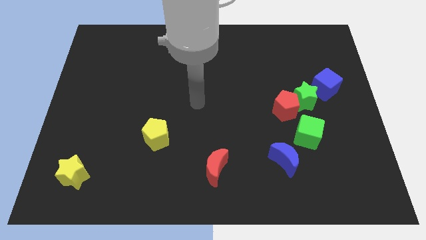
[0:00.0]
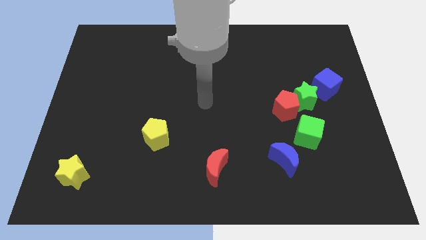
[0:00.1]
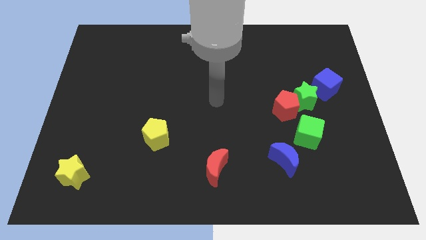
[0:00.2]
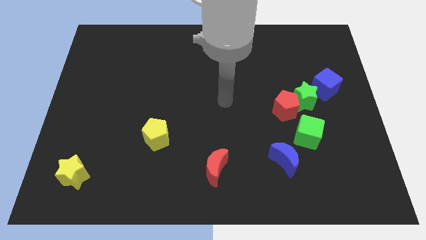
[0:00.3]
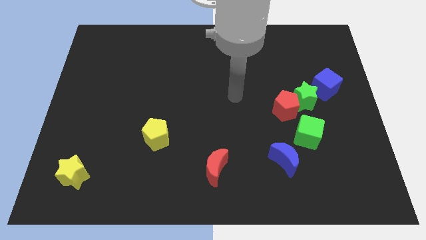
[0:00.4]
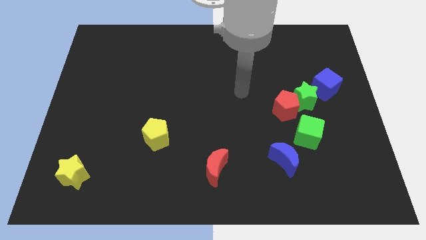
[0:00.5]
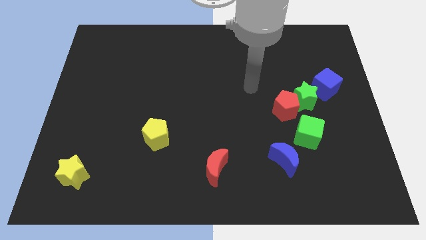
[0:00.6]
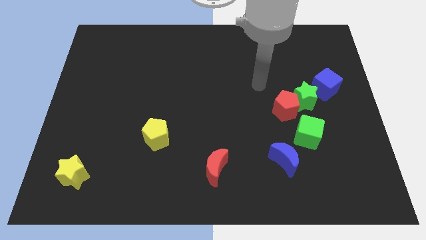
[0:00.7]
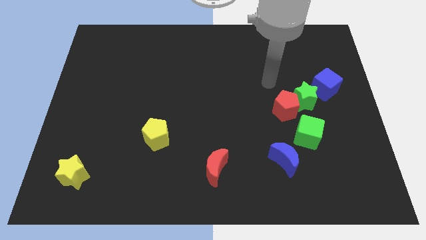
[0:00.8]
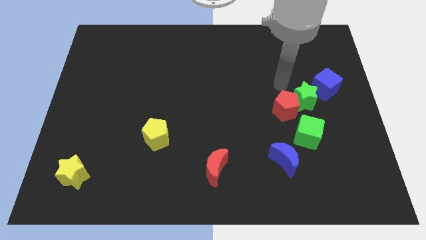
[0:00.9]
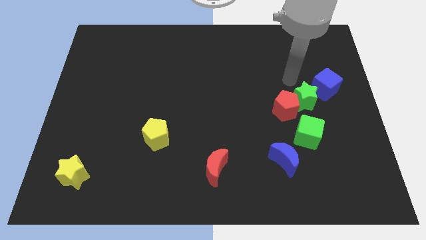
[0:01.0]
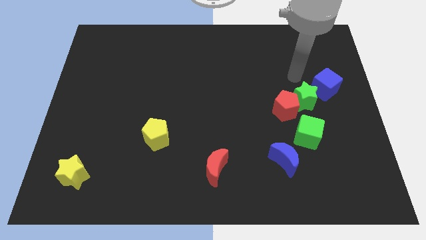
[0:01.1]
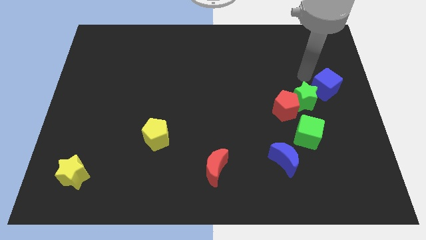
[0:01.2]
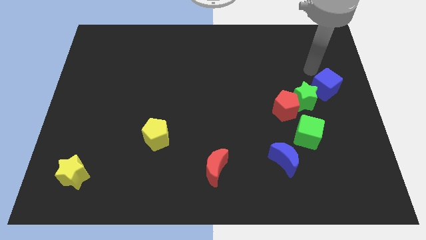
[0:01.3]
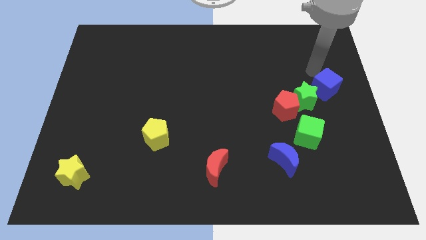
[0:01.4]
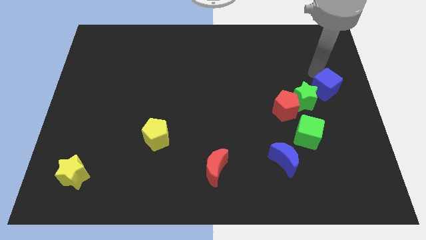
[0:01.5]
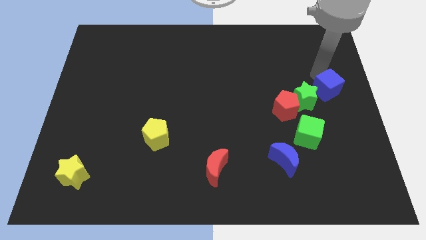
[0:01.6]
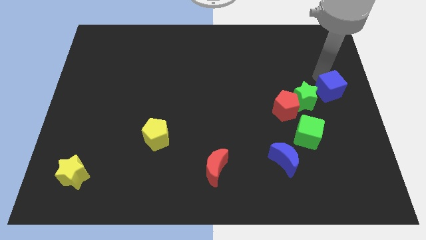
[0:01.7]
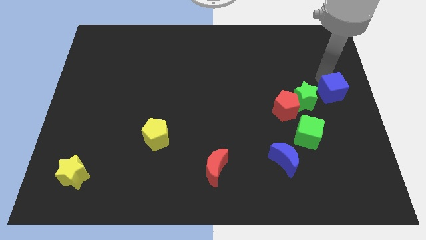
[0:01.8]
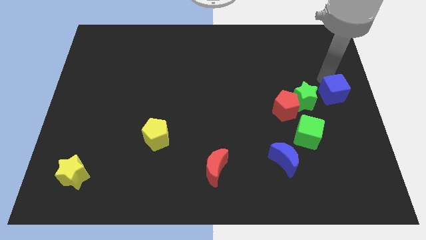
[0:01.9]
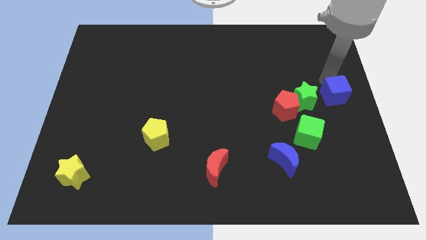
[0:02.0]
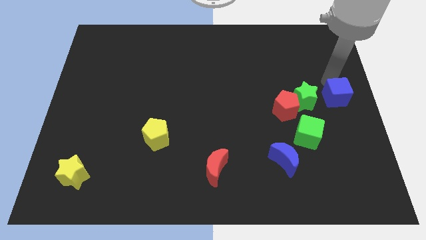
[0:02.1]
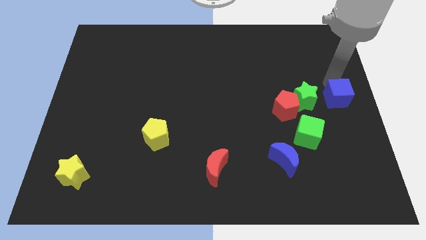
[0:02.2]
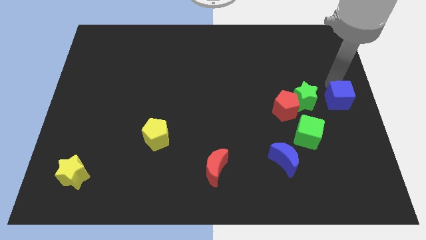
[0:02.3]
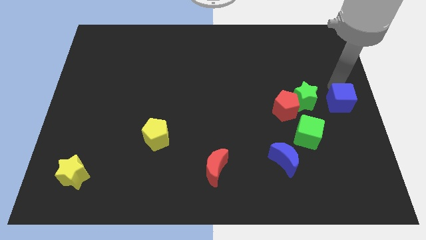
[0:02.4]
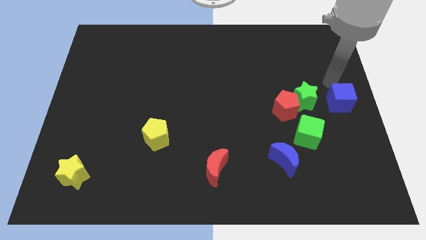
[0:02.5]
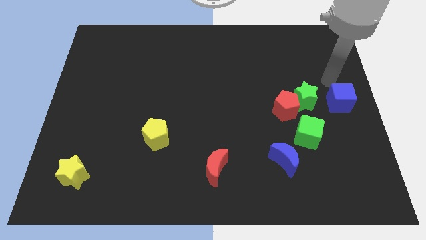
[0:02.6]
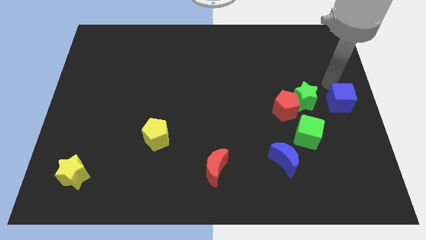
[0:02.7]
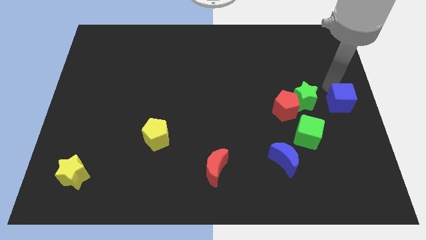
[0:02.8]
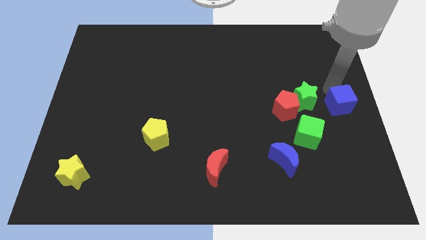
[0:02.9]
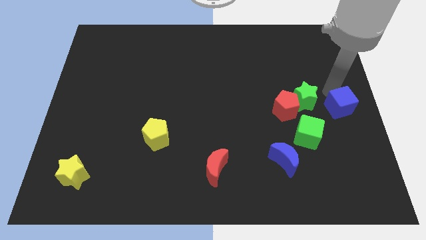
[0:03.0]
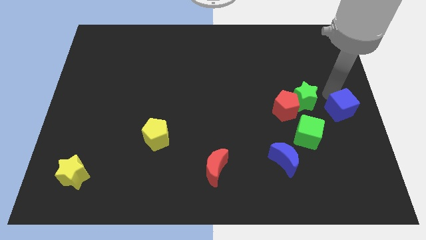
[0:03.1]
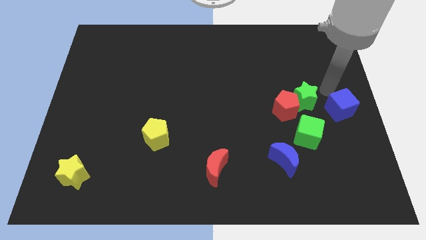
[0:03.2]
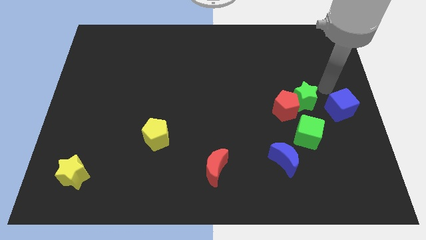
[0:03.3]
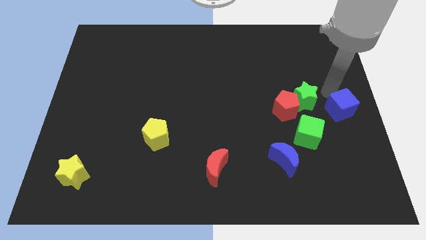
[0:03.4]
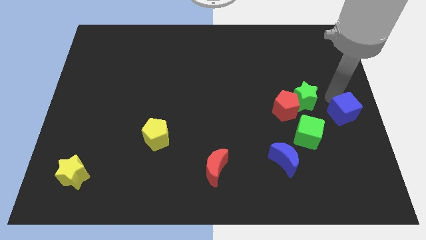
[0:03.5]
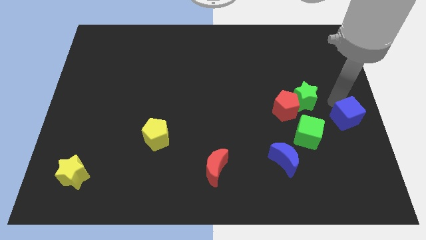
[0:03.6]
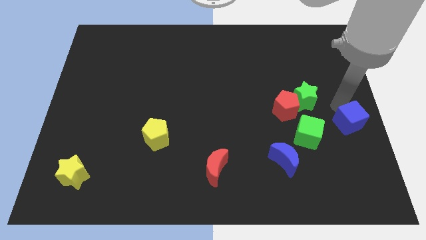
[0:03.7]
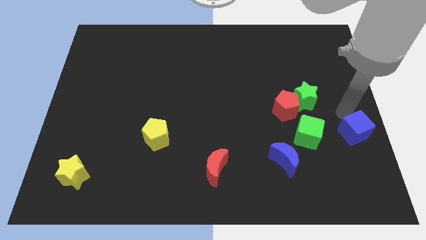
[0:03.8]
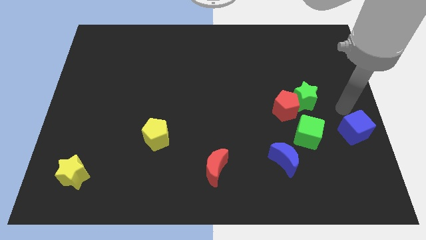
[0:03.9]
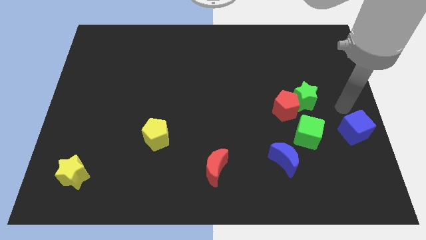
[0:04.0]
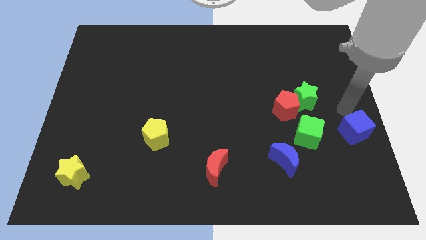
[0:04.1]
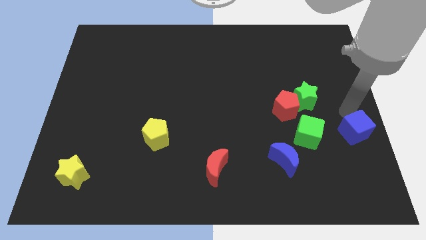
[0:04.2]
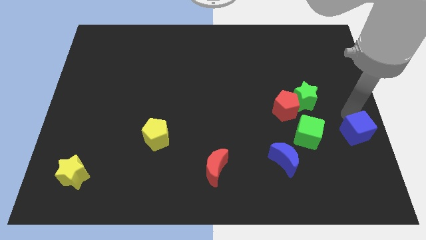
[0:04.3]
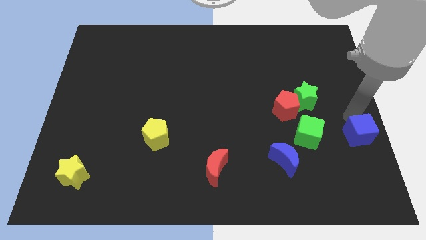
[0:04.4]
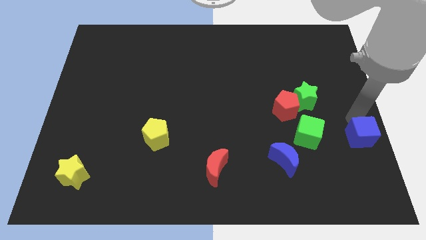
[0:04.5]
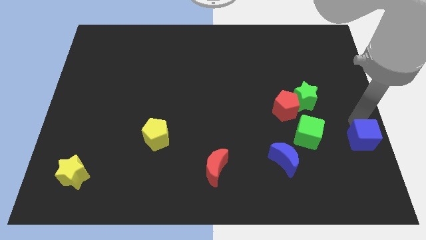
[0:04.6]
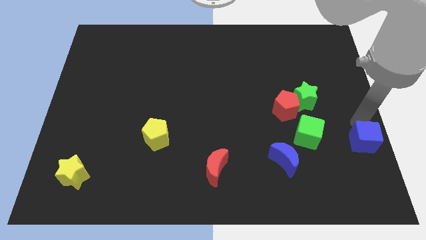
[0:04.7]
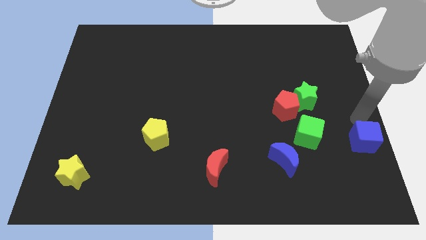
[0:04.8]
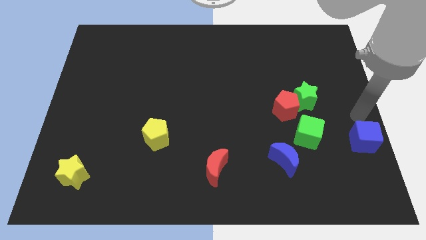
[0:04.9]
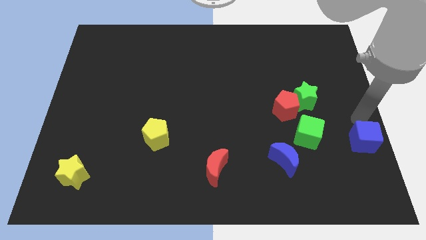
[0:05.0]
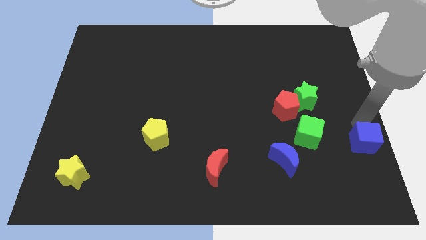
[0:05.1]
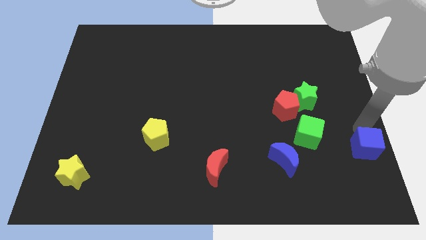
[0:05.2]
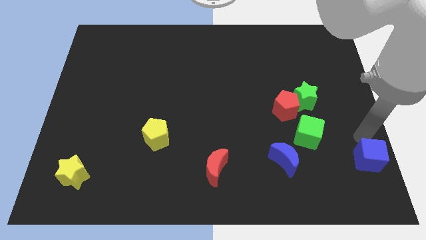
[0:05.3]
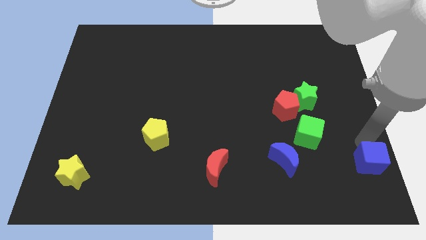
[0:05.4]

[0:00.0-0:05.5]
push the blue cube to the bottom right

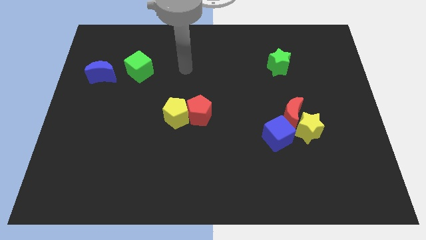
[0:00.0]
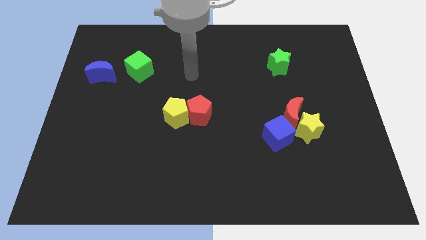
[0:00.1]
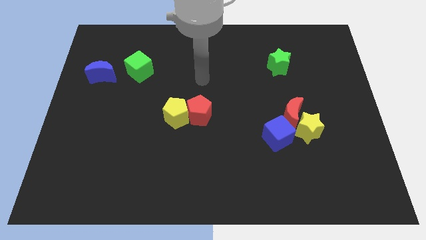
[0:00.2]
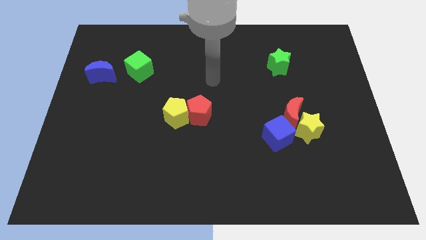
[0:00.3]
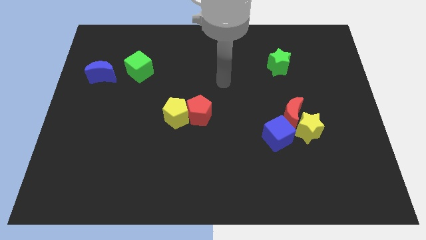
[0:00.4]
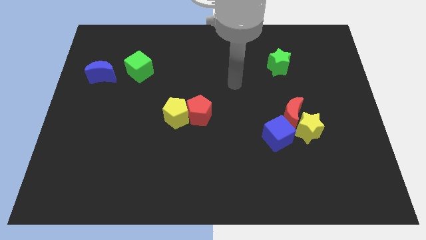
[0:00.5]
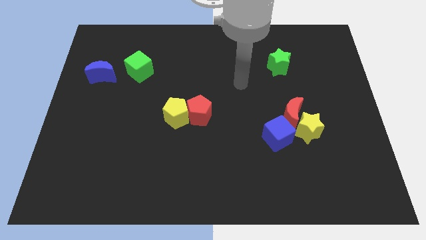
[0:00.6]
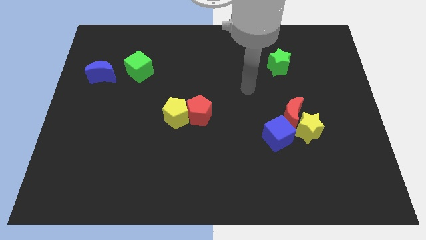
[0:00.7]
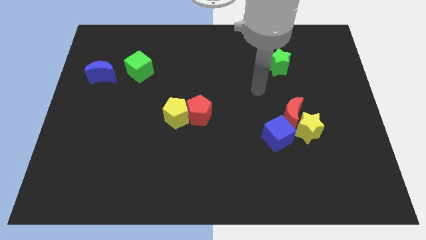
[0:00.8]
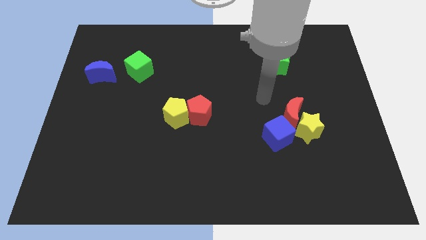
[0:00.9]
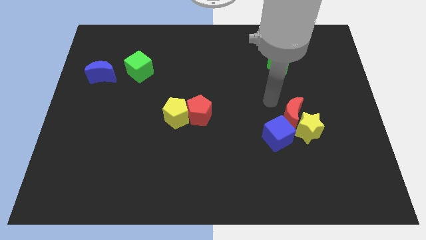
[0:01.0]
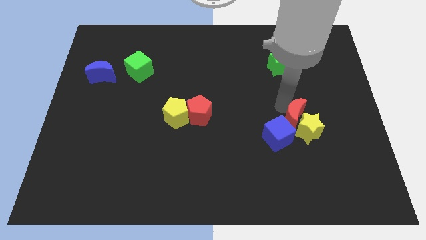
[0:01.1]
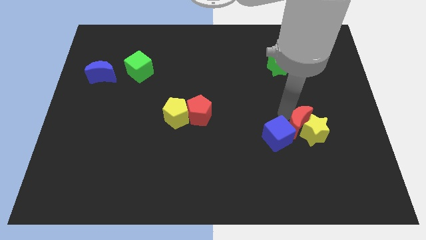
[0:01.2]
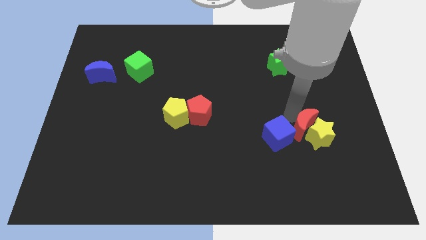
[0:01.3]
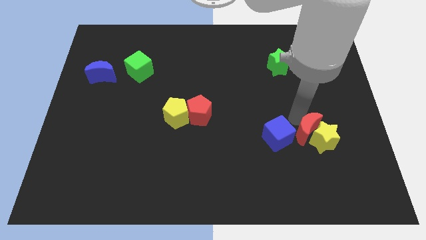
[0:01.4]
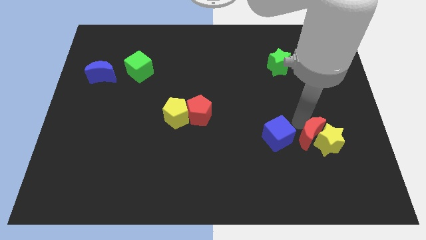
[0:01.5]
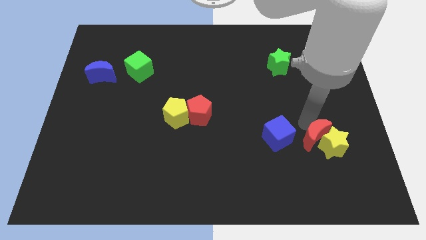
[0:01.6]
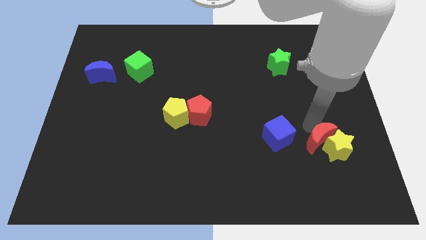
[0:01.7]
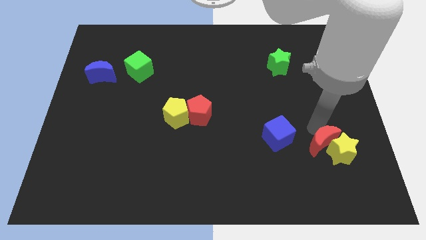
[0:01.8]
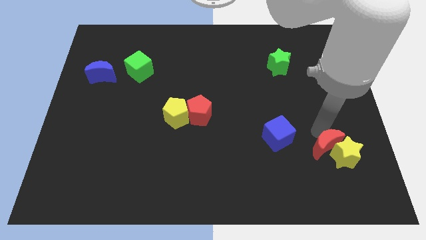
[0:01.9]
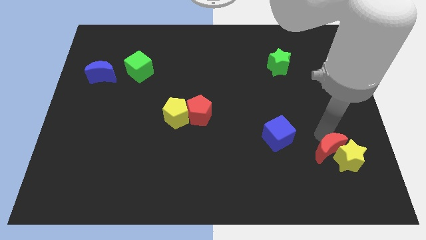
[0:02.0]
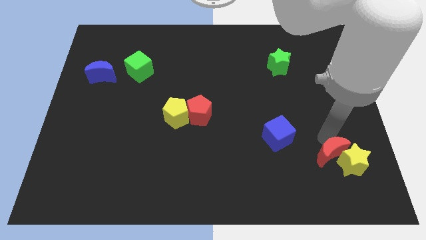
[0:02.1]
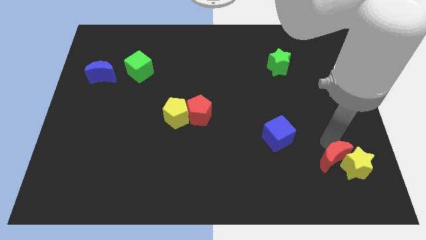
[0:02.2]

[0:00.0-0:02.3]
push the yellow star to the bottom right
